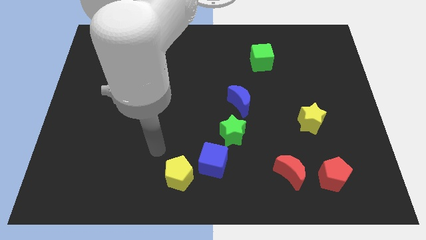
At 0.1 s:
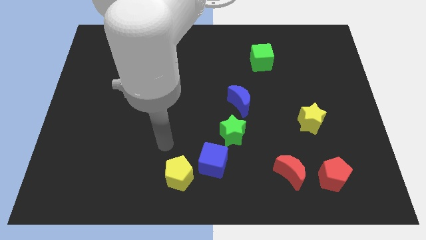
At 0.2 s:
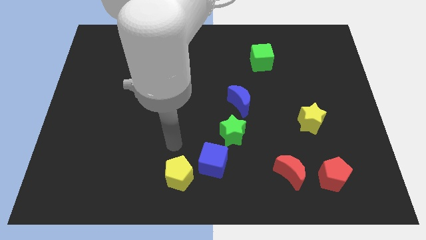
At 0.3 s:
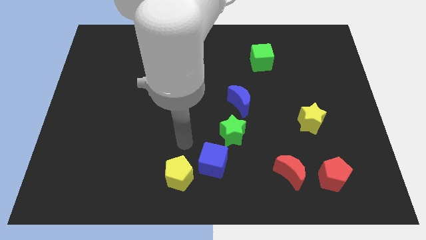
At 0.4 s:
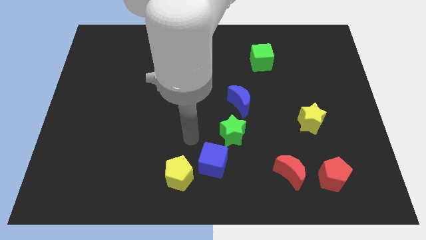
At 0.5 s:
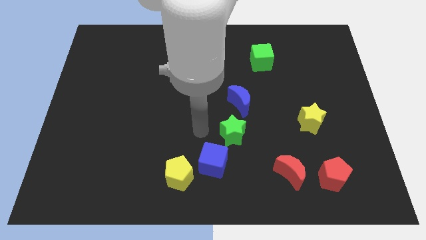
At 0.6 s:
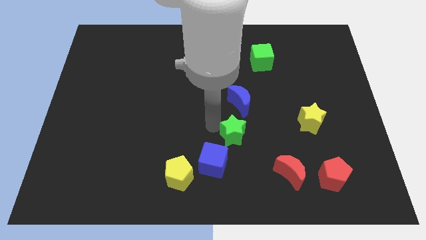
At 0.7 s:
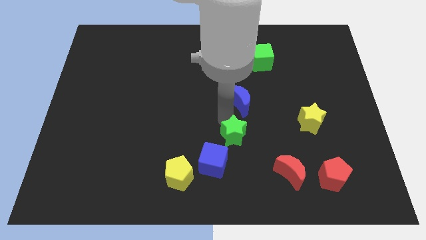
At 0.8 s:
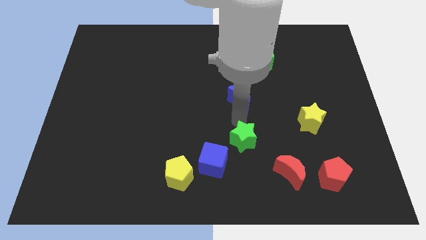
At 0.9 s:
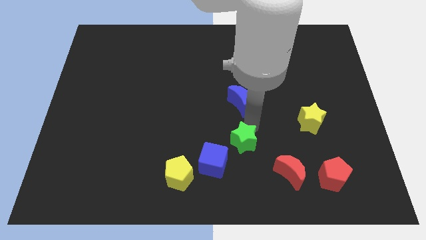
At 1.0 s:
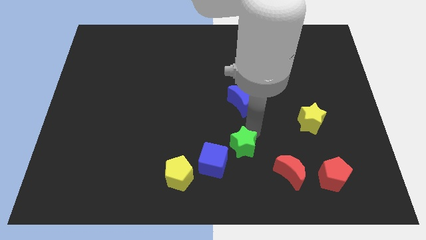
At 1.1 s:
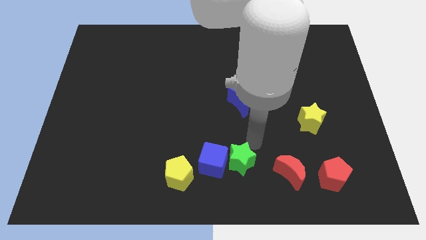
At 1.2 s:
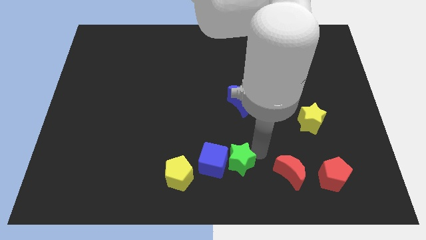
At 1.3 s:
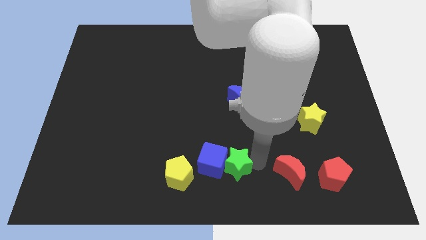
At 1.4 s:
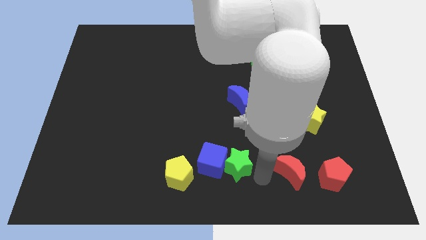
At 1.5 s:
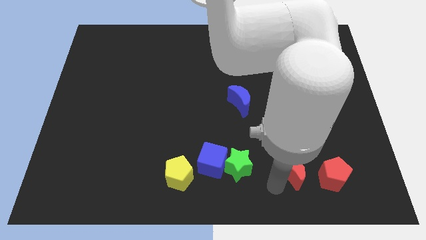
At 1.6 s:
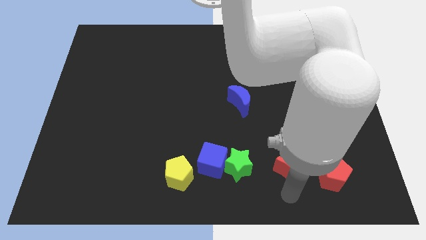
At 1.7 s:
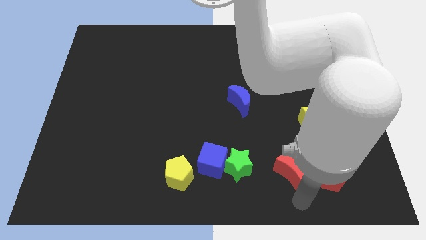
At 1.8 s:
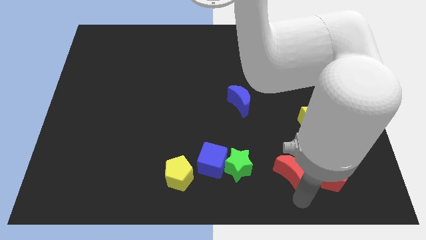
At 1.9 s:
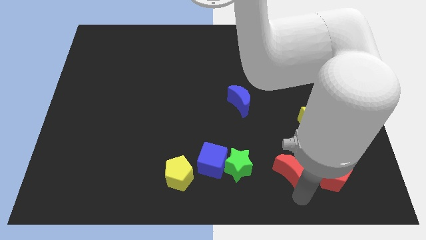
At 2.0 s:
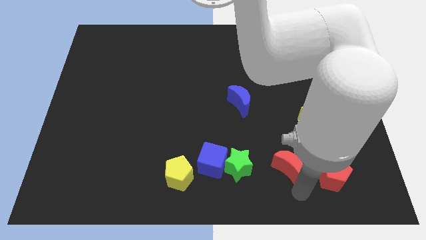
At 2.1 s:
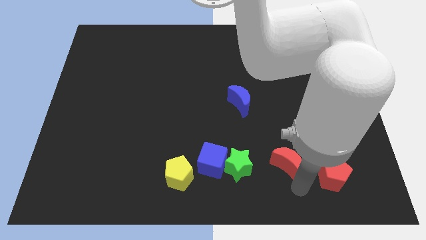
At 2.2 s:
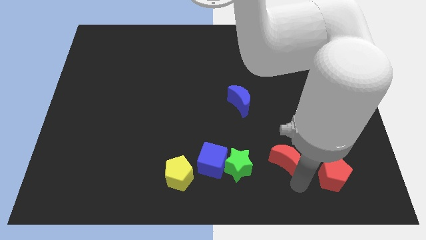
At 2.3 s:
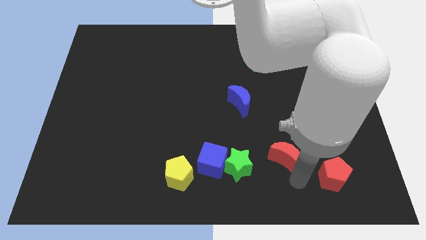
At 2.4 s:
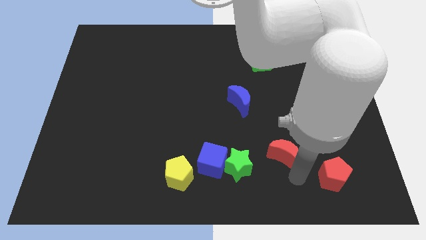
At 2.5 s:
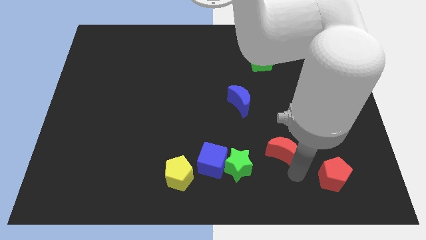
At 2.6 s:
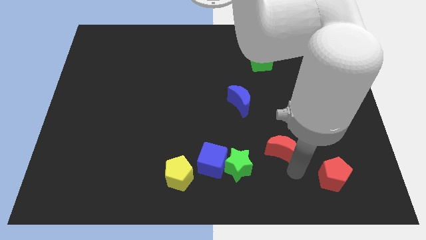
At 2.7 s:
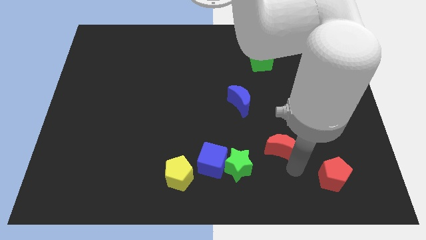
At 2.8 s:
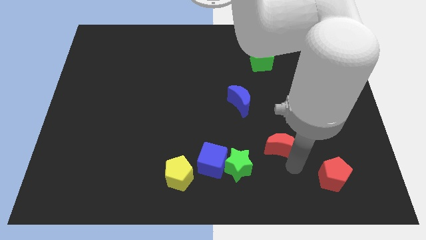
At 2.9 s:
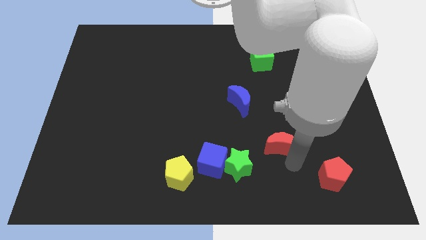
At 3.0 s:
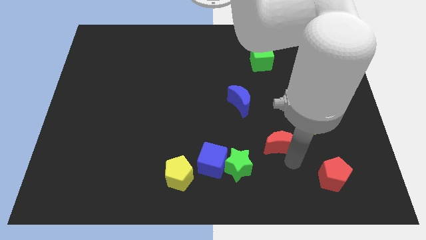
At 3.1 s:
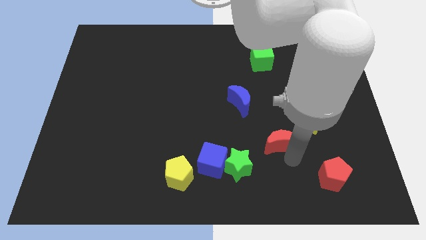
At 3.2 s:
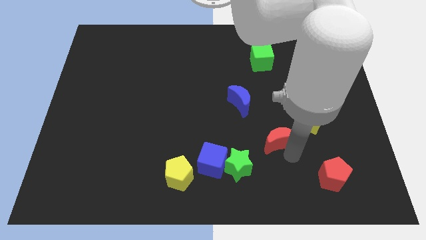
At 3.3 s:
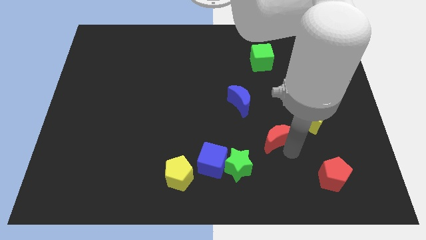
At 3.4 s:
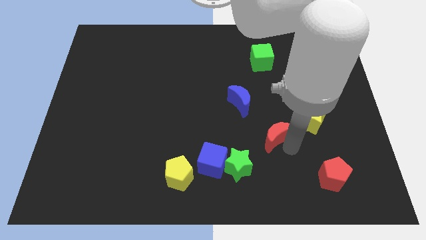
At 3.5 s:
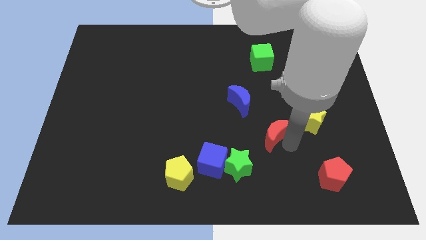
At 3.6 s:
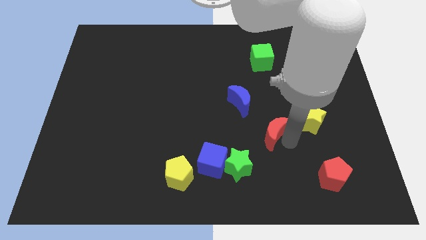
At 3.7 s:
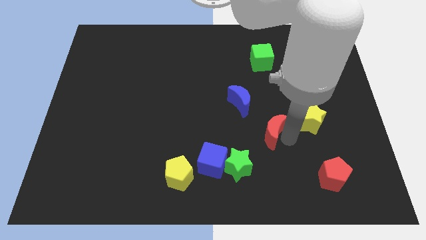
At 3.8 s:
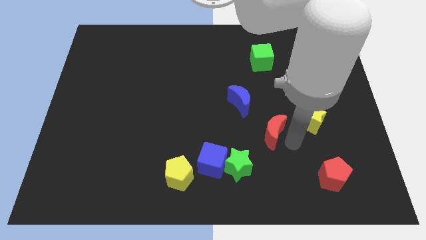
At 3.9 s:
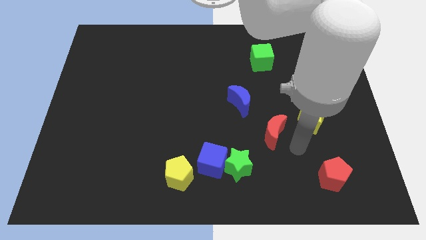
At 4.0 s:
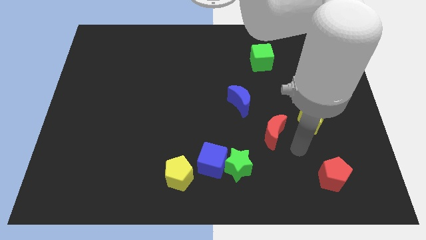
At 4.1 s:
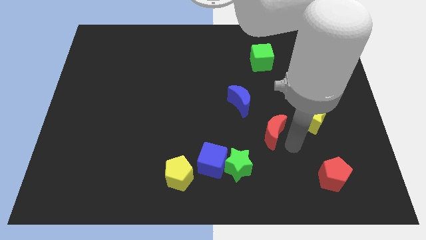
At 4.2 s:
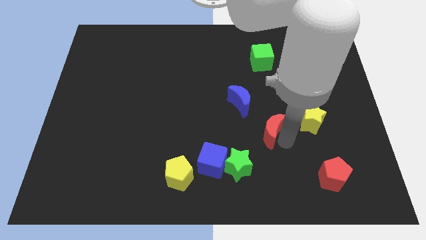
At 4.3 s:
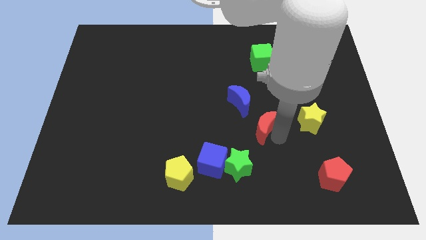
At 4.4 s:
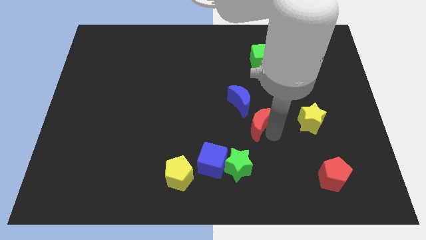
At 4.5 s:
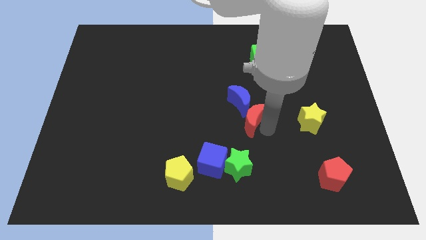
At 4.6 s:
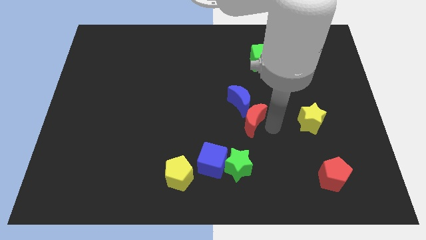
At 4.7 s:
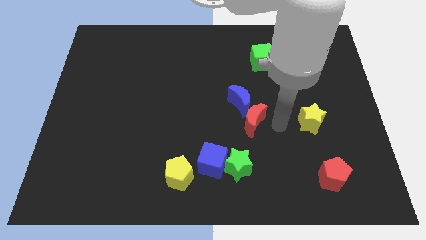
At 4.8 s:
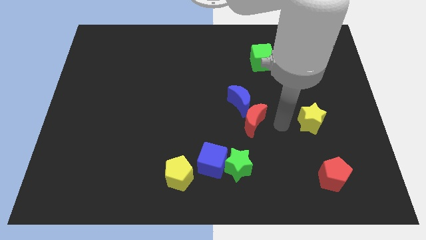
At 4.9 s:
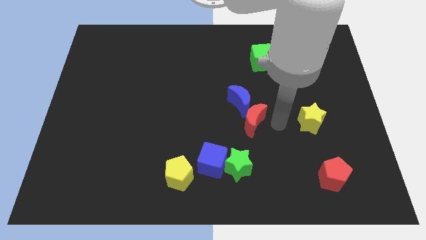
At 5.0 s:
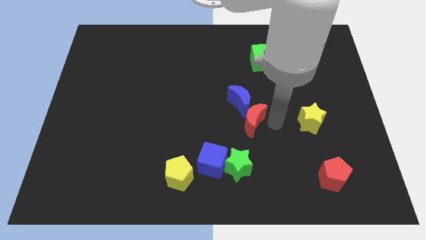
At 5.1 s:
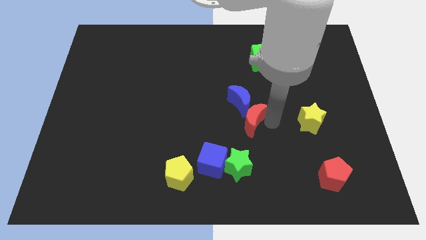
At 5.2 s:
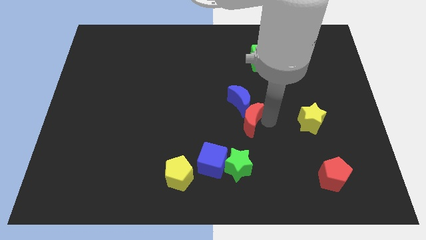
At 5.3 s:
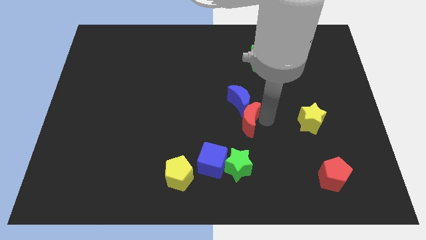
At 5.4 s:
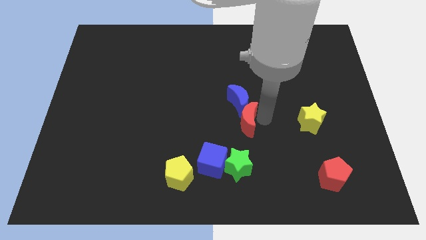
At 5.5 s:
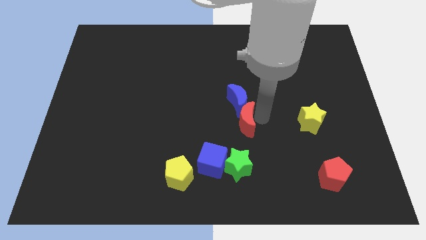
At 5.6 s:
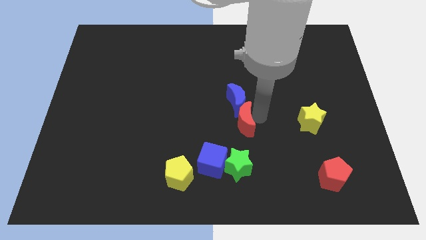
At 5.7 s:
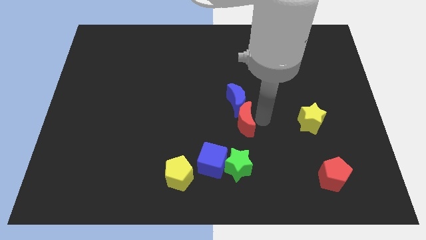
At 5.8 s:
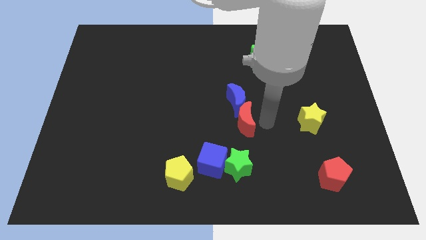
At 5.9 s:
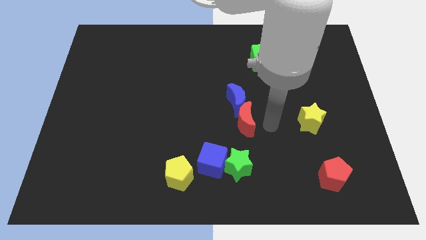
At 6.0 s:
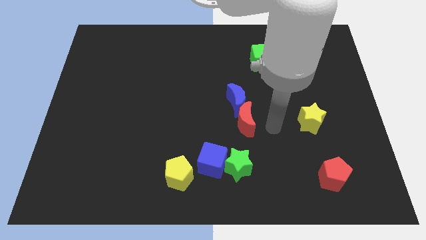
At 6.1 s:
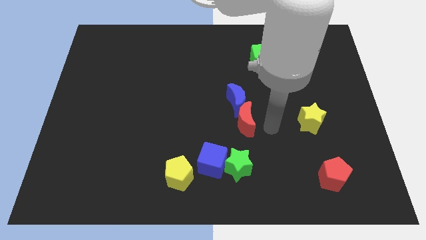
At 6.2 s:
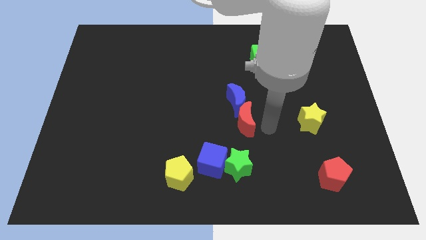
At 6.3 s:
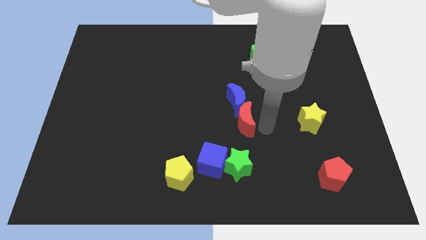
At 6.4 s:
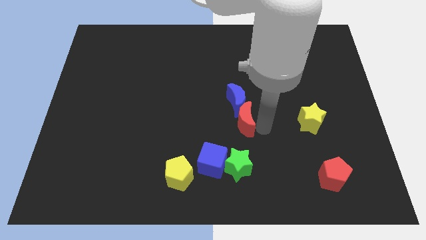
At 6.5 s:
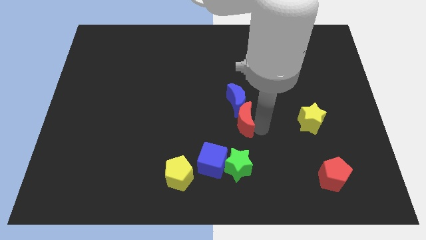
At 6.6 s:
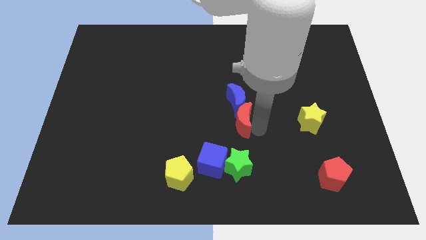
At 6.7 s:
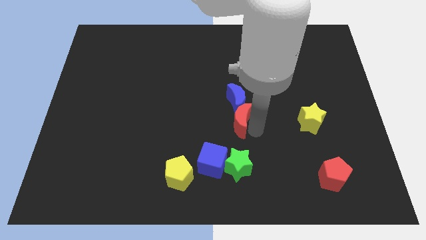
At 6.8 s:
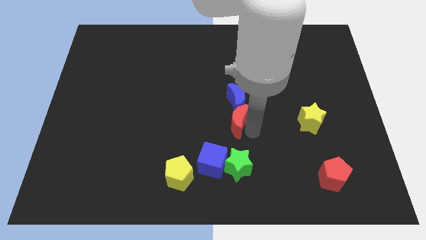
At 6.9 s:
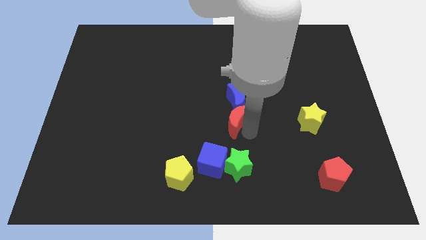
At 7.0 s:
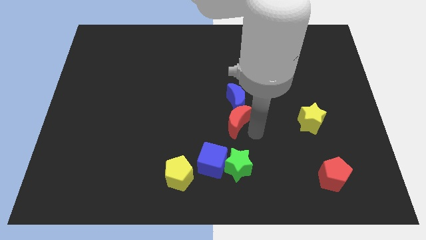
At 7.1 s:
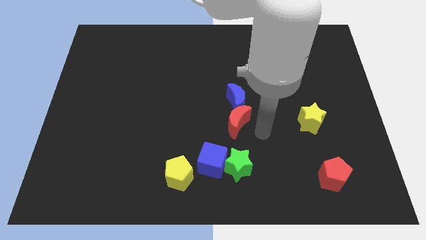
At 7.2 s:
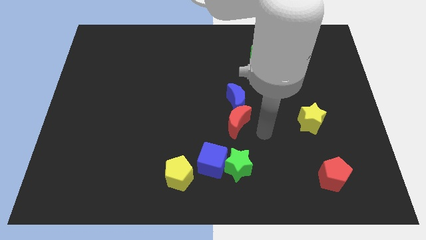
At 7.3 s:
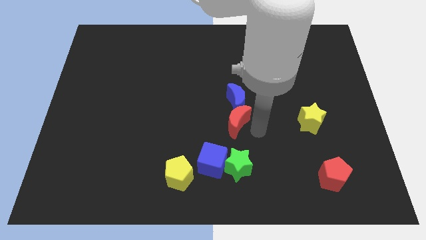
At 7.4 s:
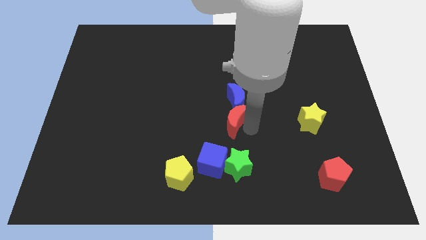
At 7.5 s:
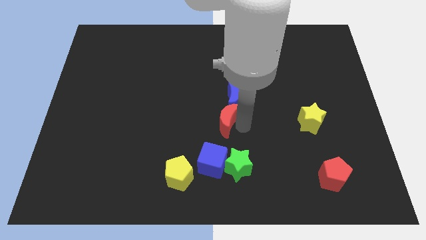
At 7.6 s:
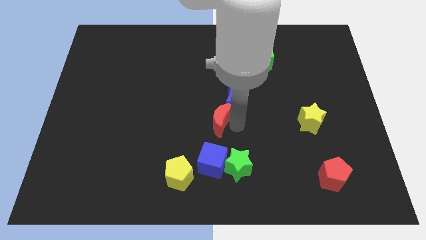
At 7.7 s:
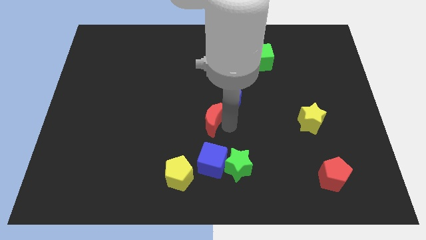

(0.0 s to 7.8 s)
move the red moon diagonally up and left

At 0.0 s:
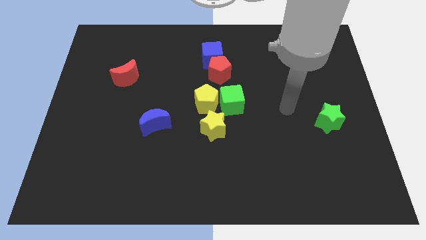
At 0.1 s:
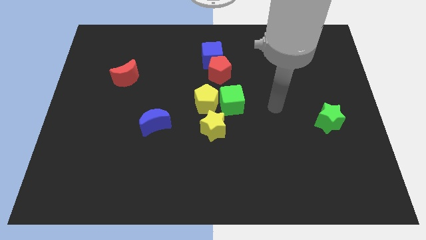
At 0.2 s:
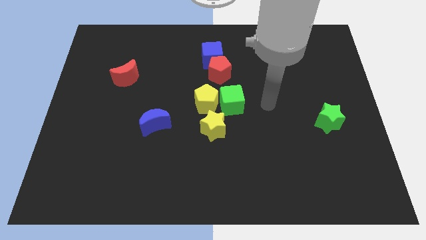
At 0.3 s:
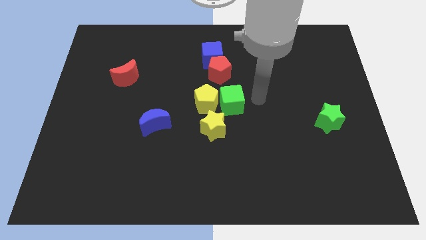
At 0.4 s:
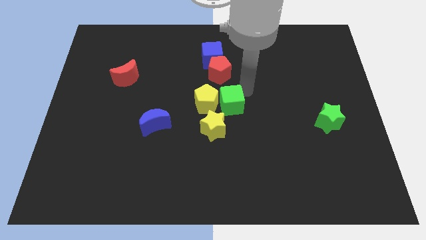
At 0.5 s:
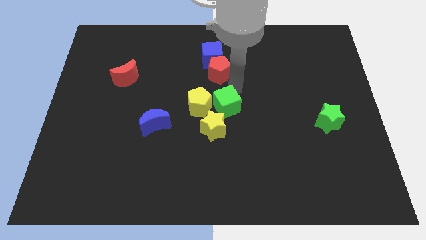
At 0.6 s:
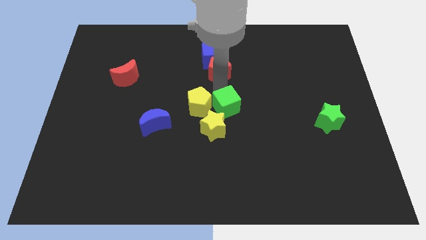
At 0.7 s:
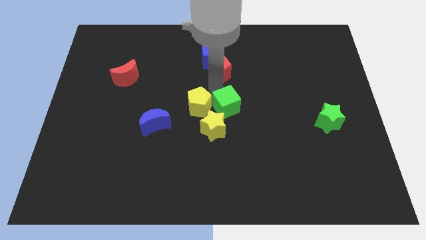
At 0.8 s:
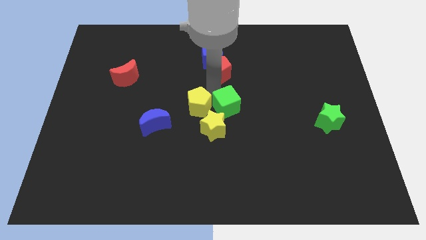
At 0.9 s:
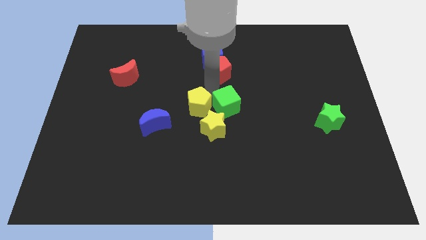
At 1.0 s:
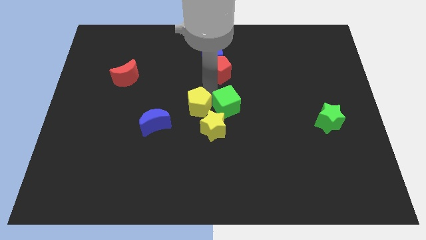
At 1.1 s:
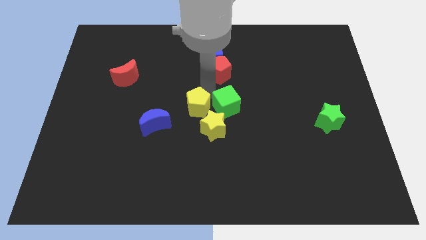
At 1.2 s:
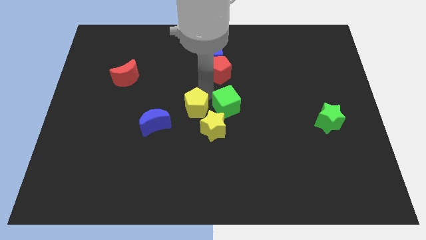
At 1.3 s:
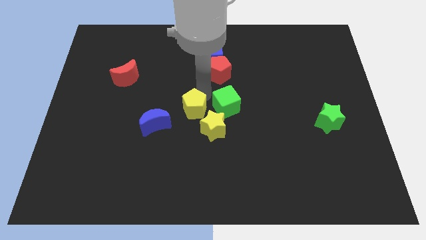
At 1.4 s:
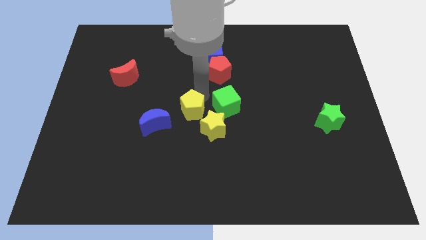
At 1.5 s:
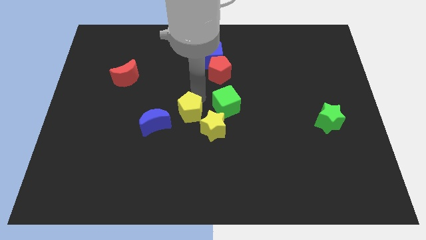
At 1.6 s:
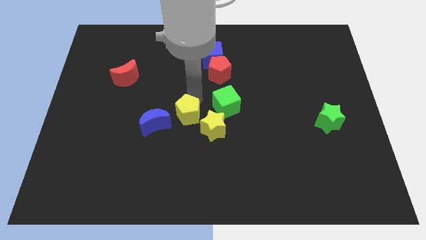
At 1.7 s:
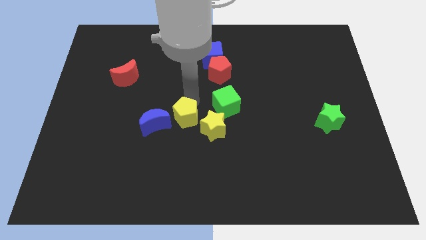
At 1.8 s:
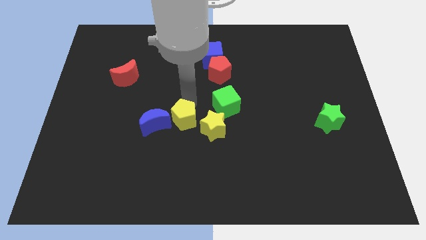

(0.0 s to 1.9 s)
move the yellow pentagon somewhat downwards and to the left diagonally
